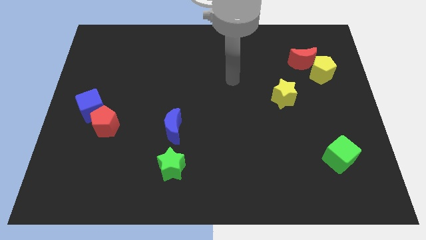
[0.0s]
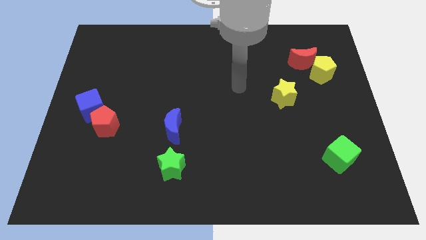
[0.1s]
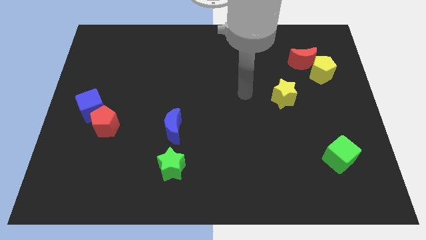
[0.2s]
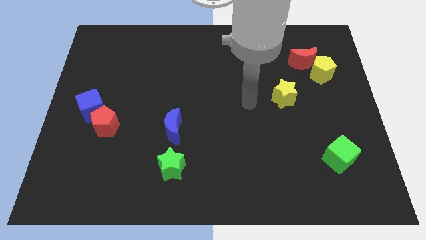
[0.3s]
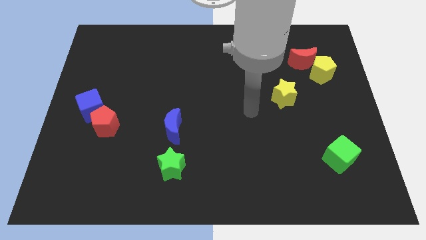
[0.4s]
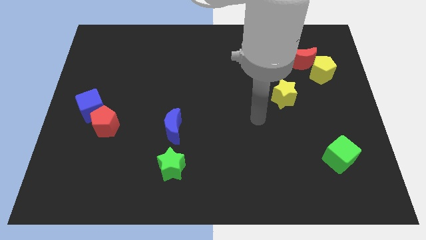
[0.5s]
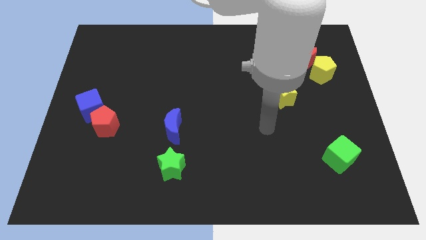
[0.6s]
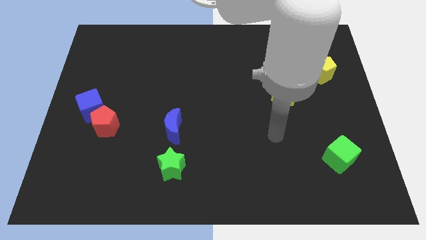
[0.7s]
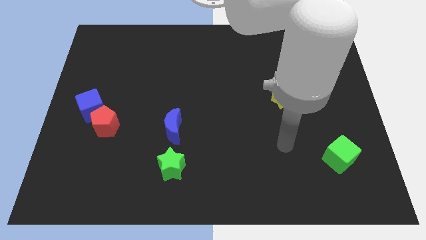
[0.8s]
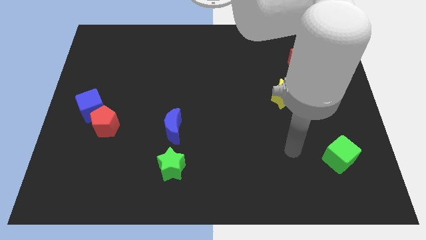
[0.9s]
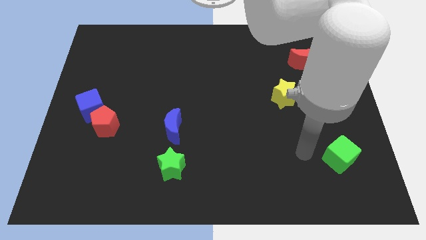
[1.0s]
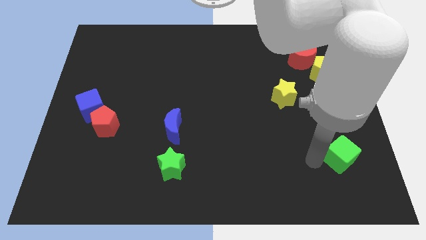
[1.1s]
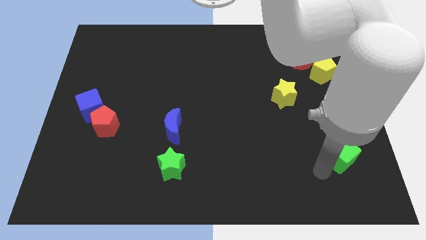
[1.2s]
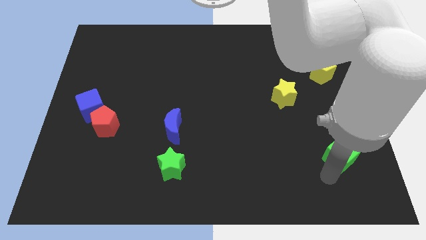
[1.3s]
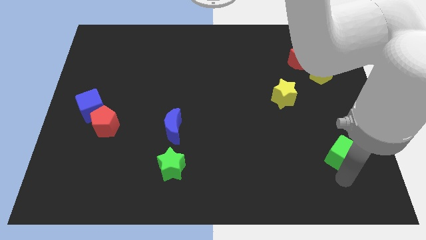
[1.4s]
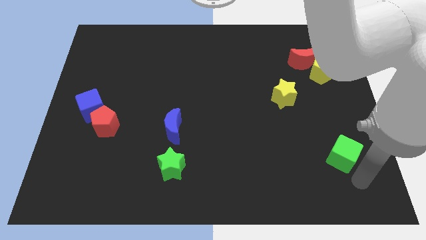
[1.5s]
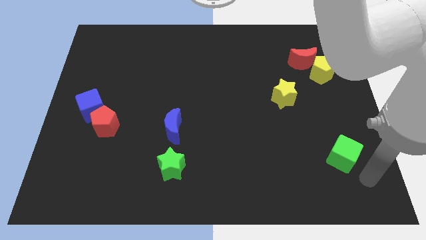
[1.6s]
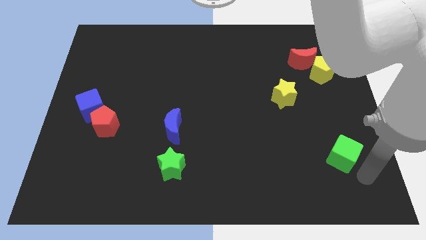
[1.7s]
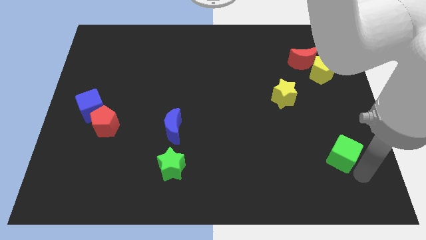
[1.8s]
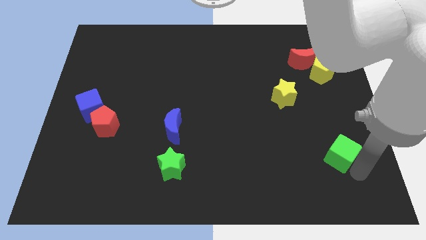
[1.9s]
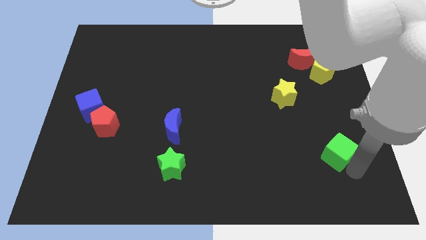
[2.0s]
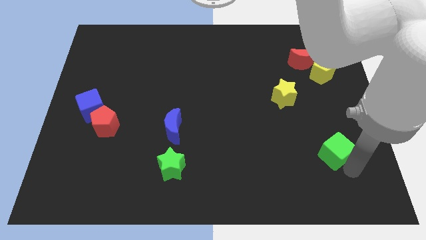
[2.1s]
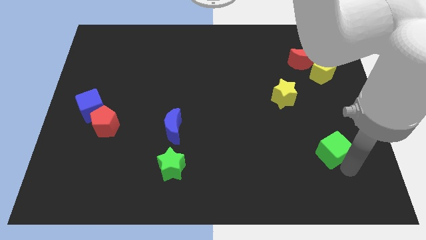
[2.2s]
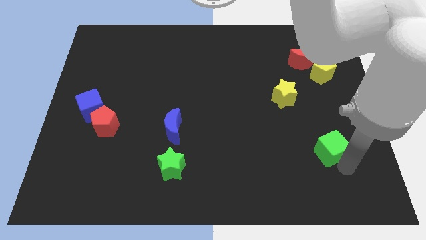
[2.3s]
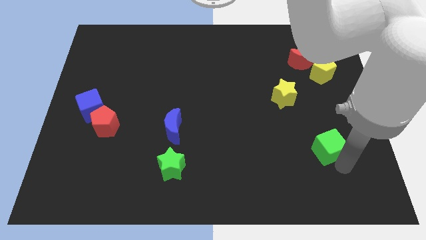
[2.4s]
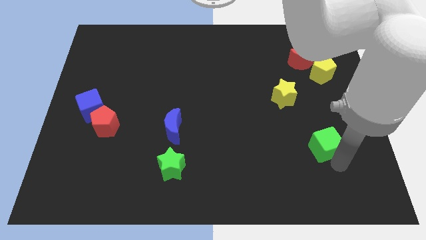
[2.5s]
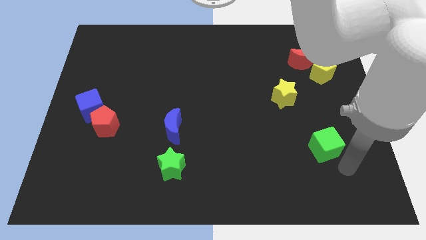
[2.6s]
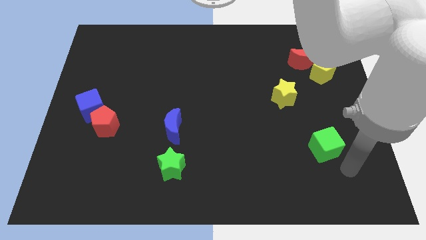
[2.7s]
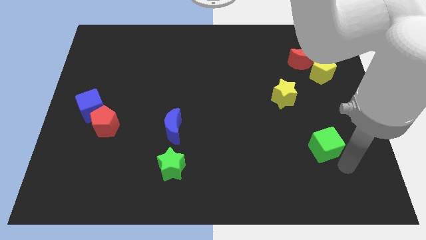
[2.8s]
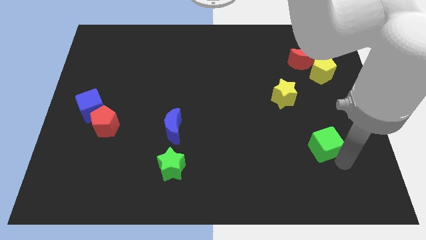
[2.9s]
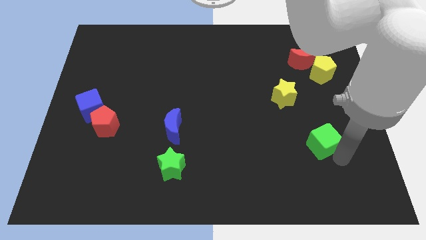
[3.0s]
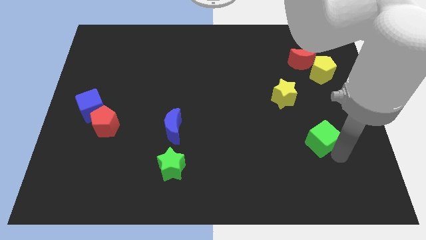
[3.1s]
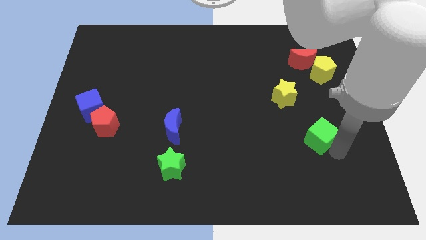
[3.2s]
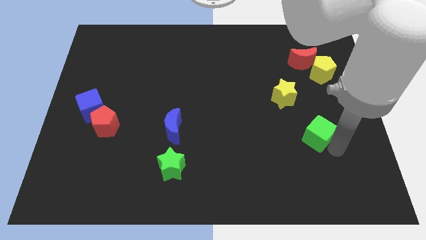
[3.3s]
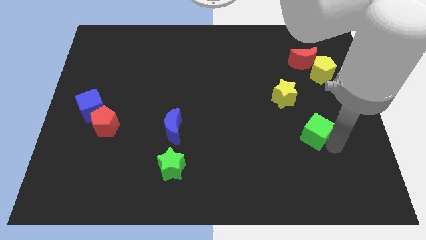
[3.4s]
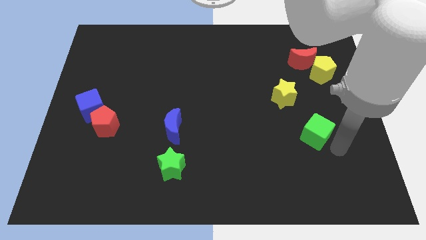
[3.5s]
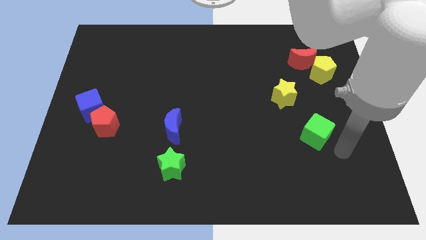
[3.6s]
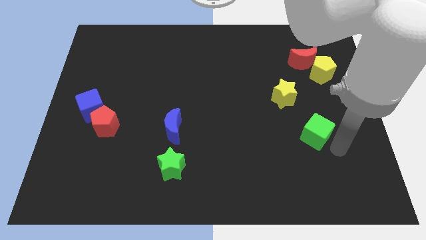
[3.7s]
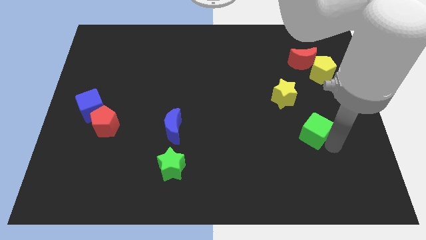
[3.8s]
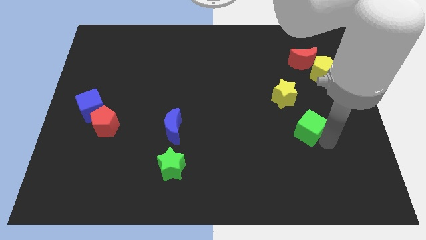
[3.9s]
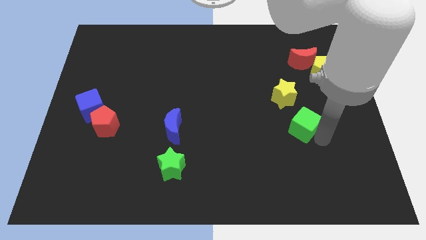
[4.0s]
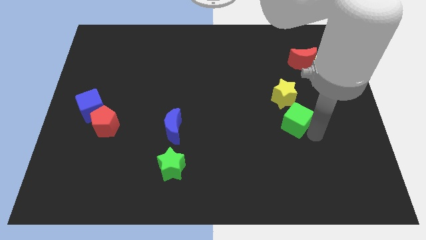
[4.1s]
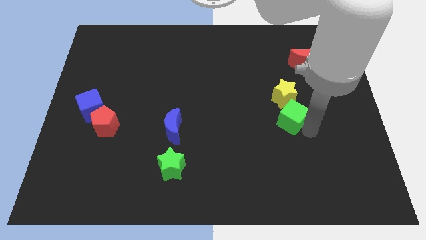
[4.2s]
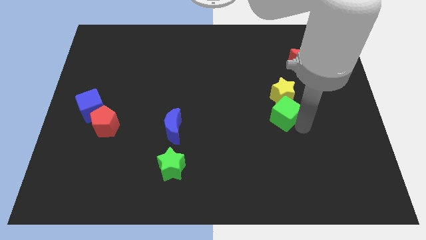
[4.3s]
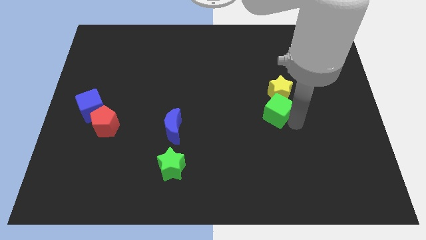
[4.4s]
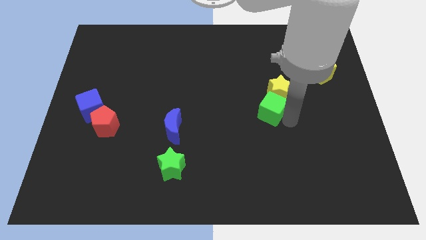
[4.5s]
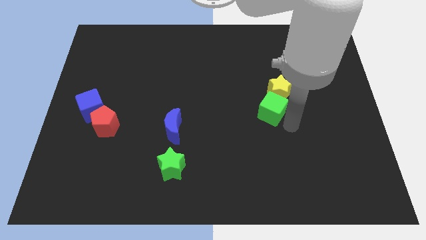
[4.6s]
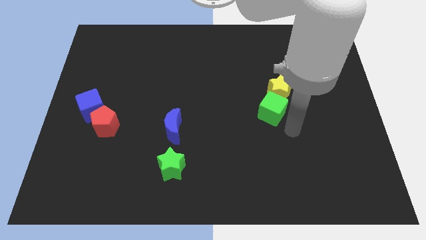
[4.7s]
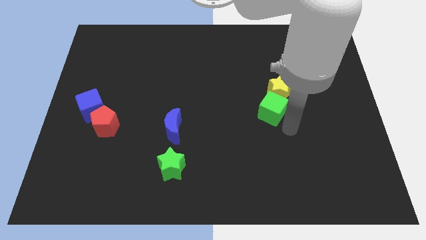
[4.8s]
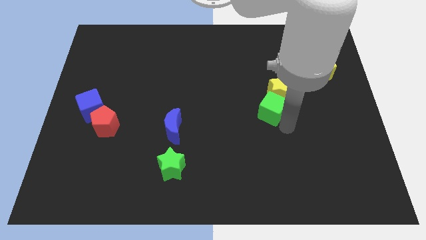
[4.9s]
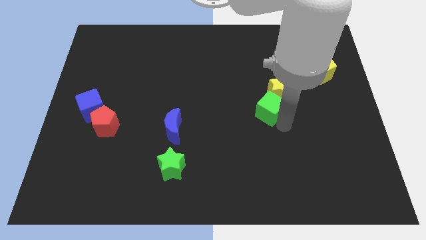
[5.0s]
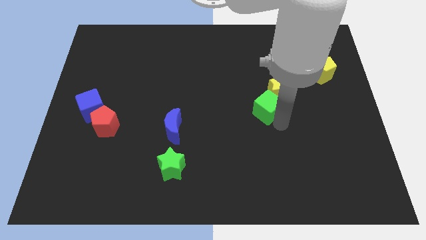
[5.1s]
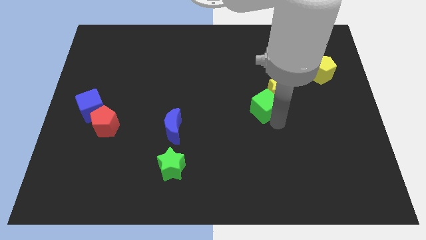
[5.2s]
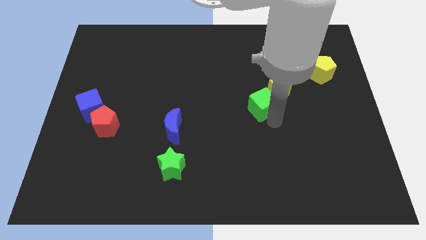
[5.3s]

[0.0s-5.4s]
move the green cube diagonally upwards and to the left

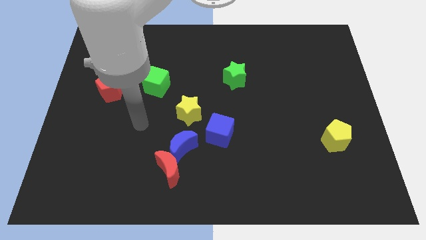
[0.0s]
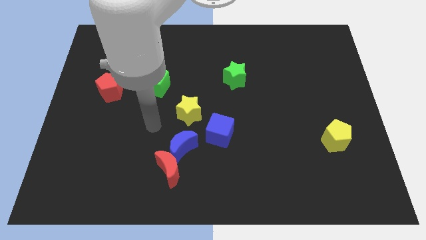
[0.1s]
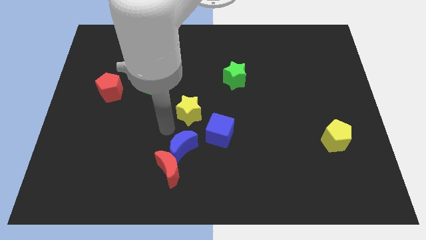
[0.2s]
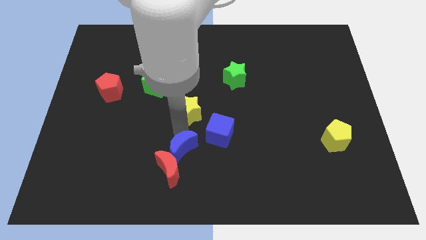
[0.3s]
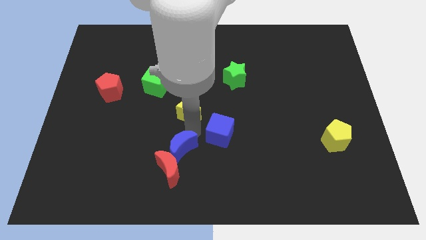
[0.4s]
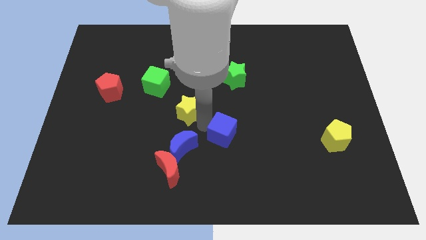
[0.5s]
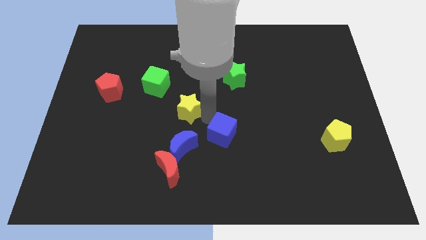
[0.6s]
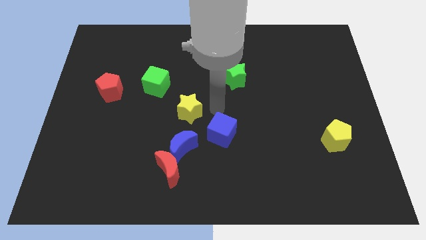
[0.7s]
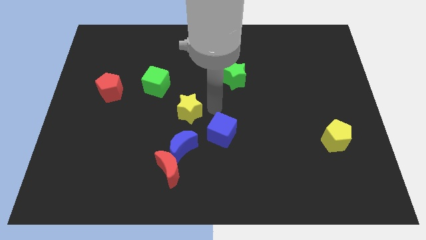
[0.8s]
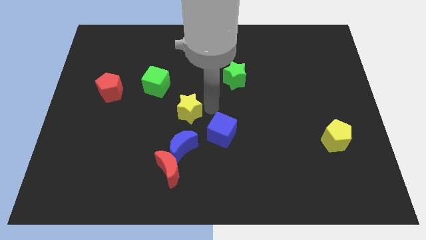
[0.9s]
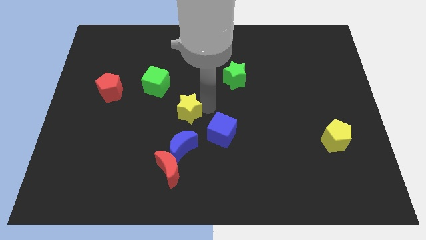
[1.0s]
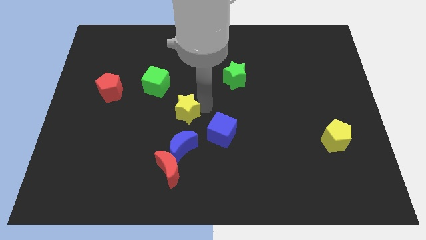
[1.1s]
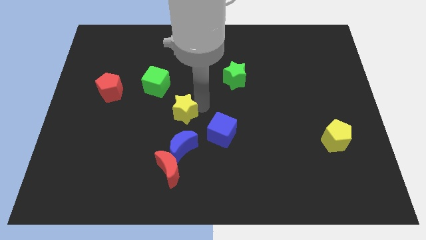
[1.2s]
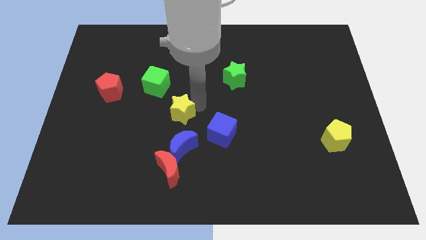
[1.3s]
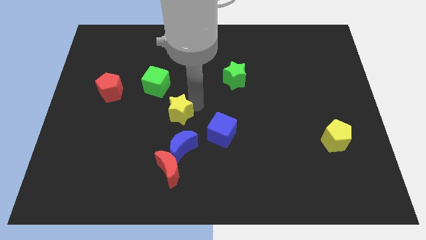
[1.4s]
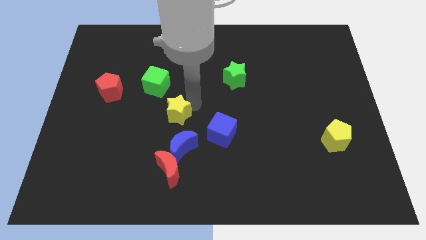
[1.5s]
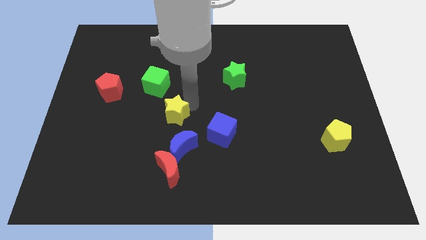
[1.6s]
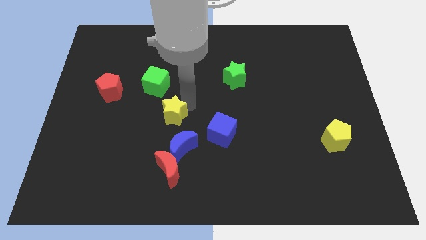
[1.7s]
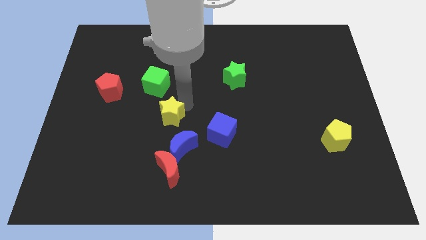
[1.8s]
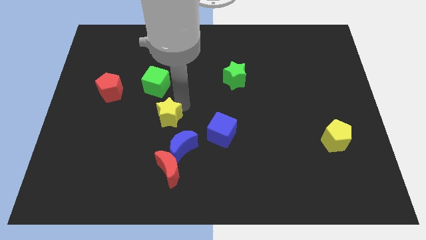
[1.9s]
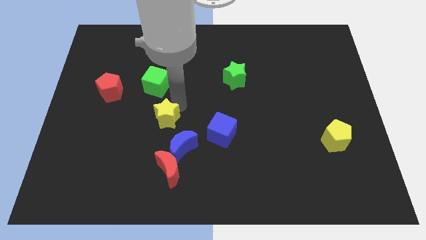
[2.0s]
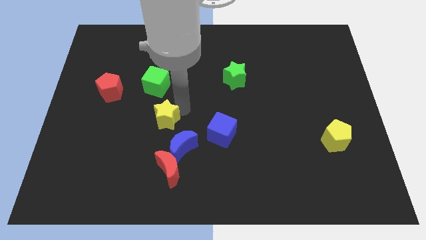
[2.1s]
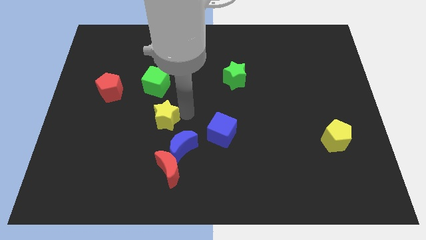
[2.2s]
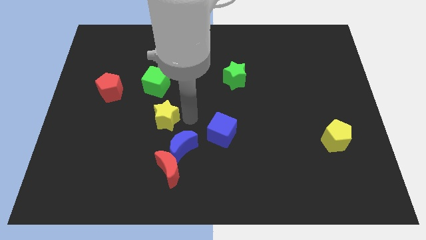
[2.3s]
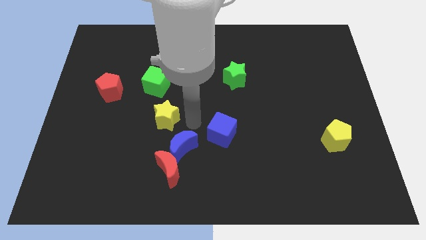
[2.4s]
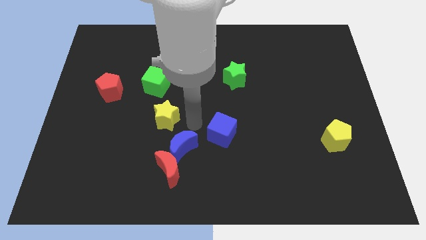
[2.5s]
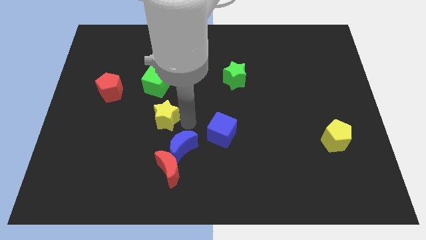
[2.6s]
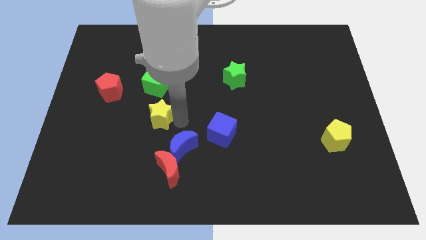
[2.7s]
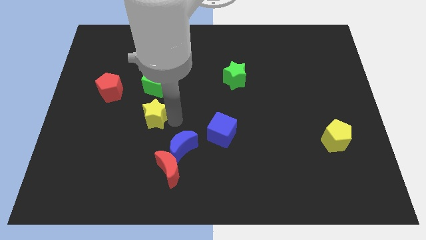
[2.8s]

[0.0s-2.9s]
push the yellow star somewhat to the left

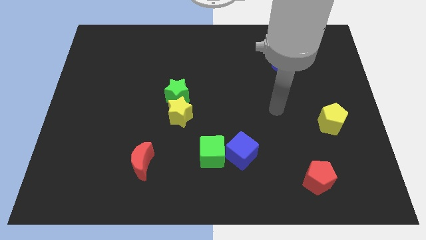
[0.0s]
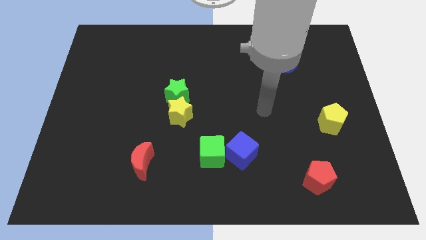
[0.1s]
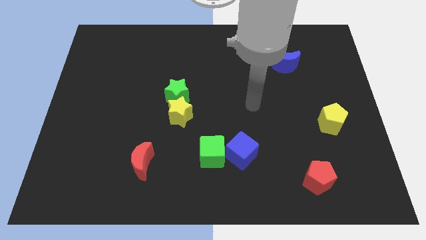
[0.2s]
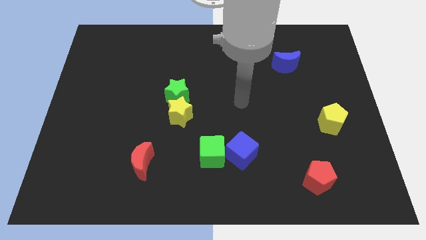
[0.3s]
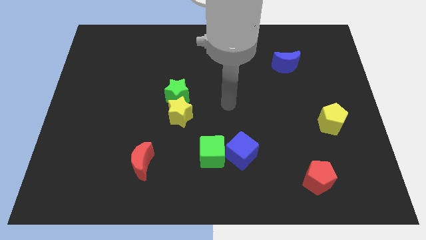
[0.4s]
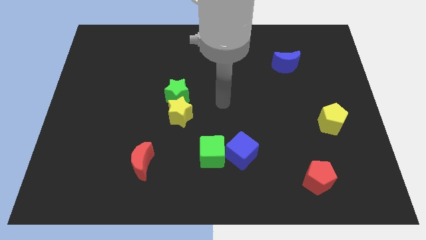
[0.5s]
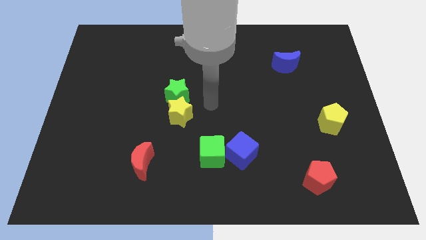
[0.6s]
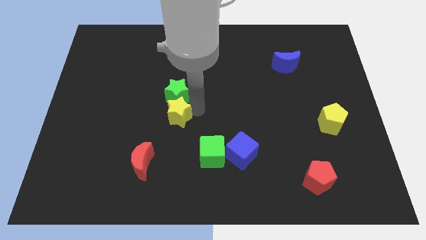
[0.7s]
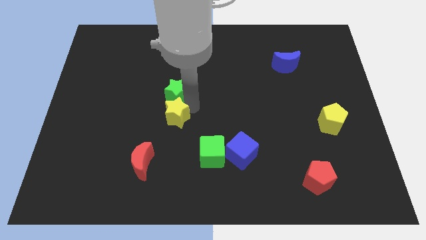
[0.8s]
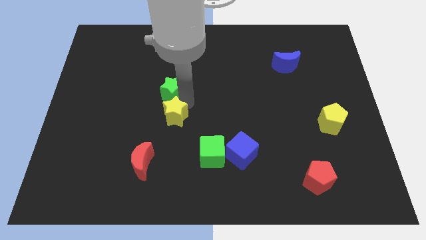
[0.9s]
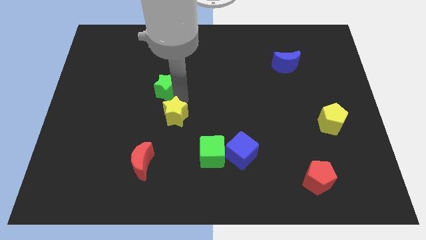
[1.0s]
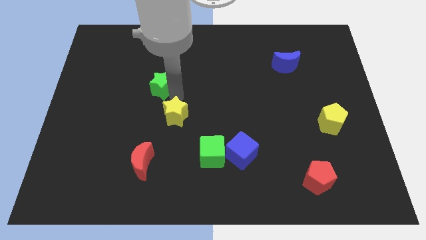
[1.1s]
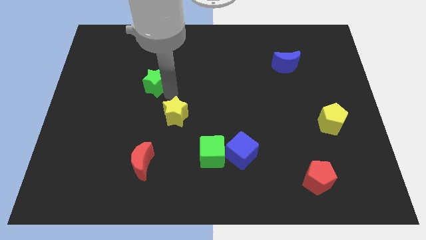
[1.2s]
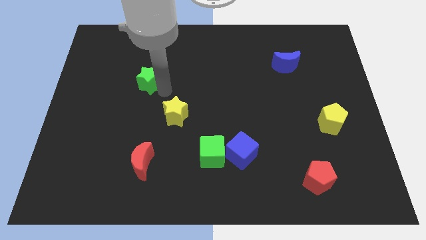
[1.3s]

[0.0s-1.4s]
slightly move the green star diagonally upwards and left
